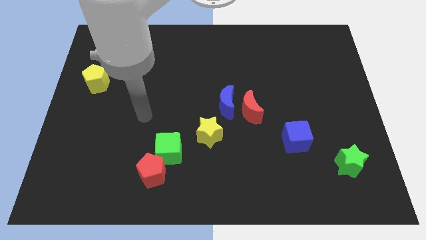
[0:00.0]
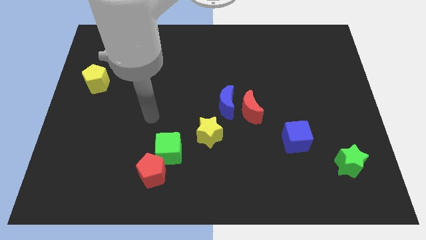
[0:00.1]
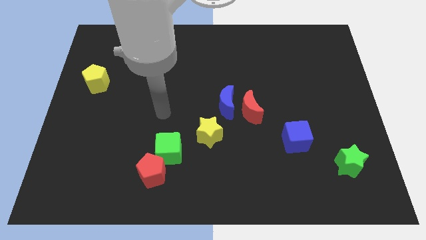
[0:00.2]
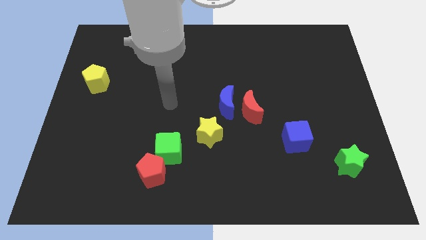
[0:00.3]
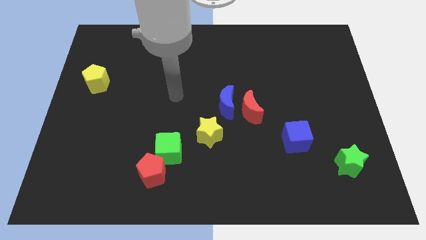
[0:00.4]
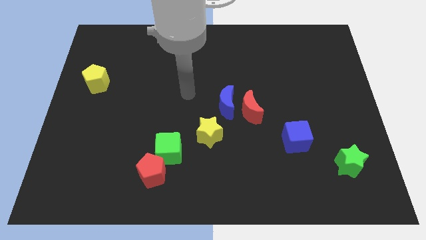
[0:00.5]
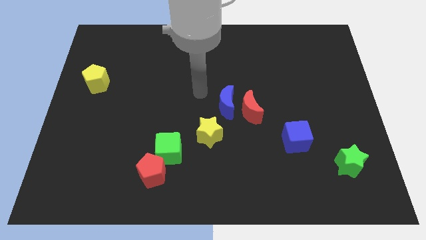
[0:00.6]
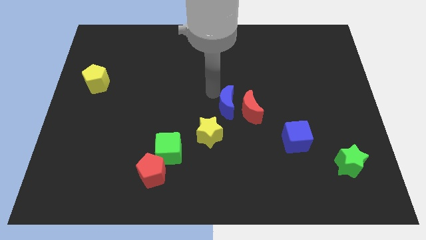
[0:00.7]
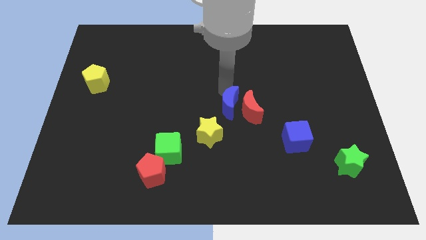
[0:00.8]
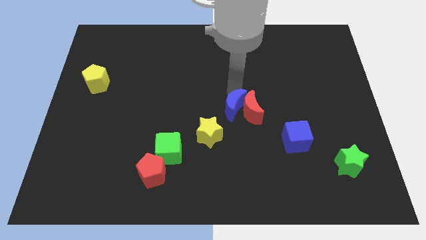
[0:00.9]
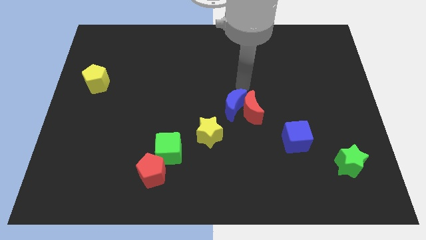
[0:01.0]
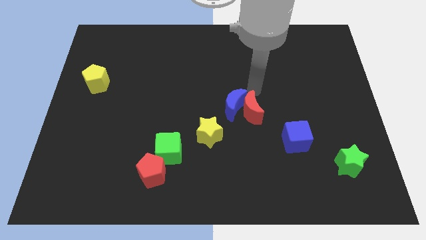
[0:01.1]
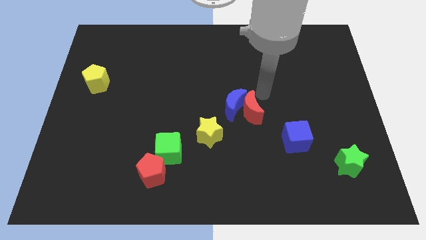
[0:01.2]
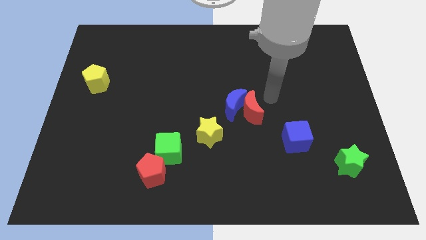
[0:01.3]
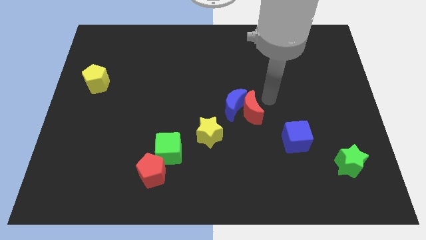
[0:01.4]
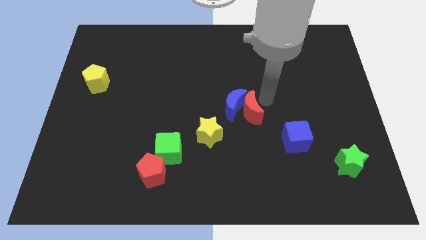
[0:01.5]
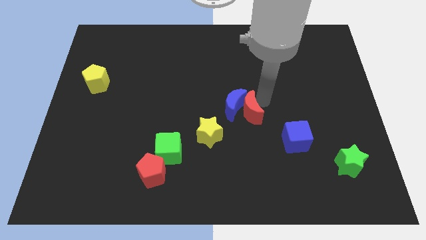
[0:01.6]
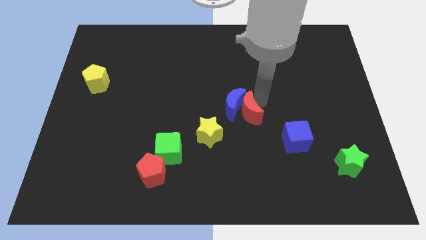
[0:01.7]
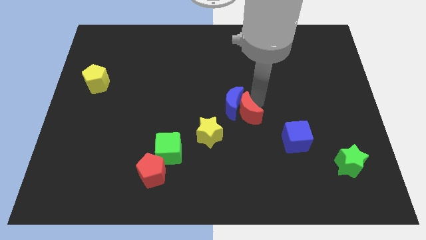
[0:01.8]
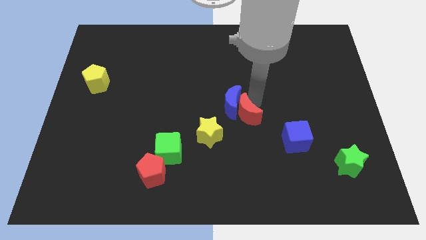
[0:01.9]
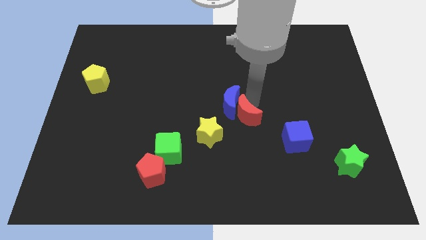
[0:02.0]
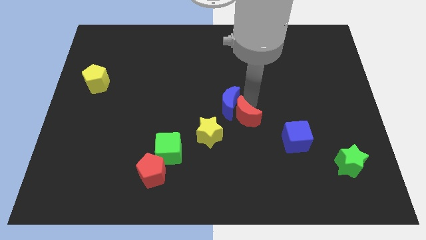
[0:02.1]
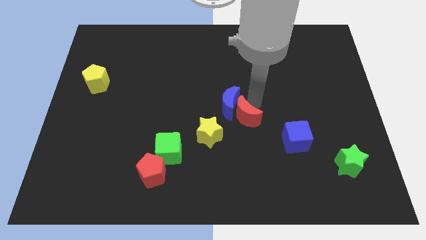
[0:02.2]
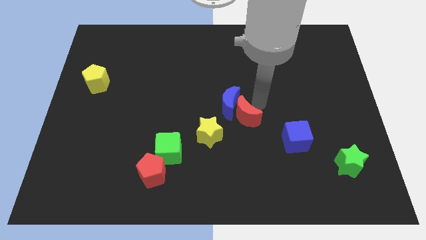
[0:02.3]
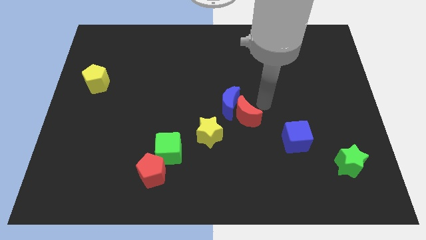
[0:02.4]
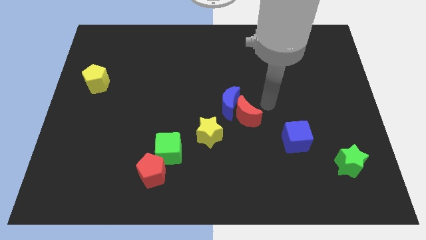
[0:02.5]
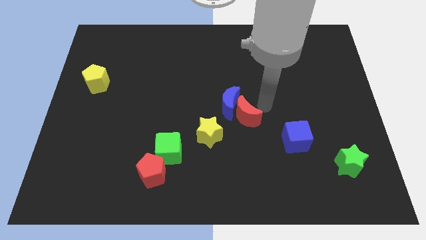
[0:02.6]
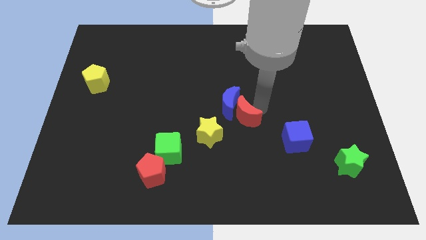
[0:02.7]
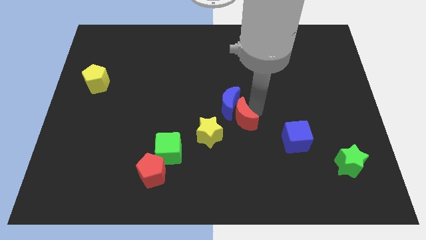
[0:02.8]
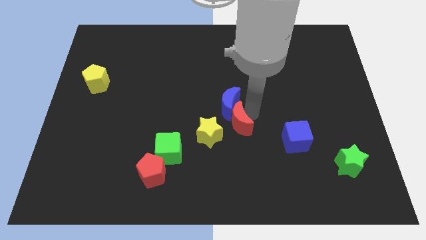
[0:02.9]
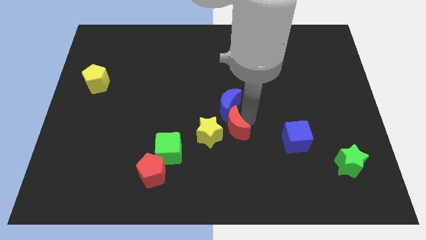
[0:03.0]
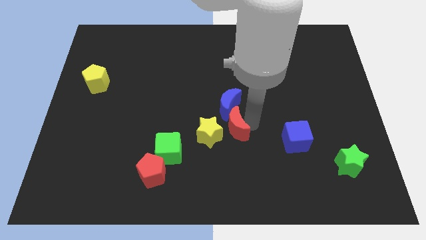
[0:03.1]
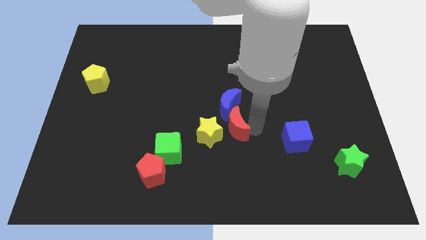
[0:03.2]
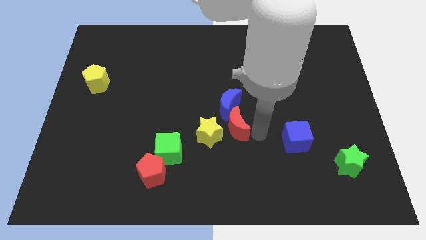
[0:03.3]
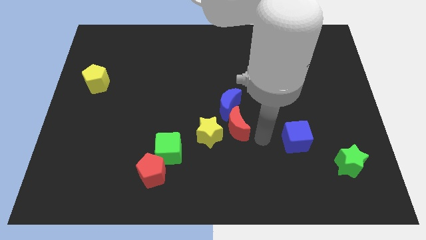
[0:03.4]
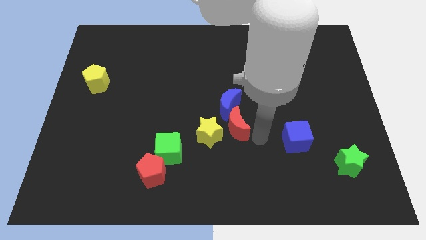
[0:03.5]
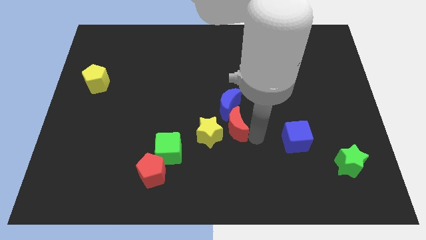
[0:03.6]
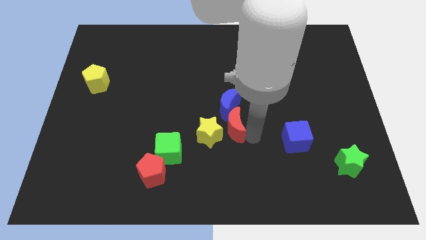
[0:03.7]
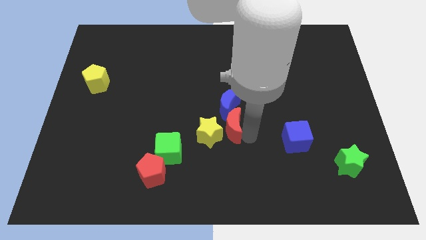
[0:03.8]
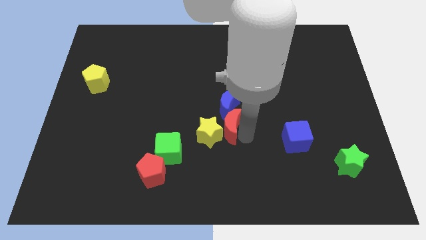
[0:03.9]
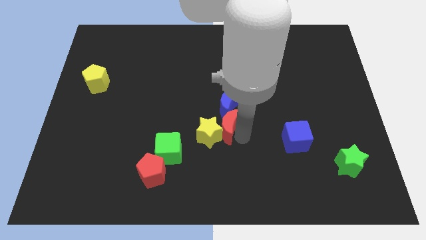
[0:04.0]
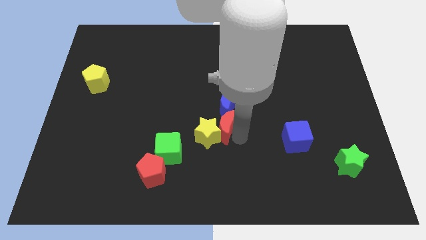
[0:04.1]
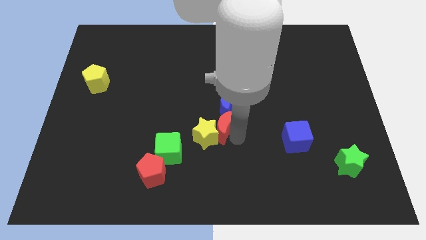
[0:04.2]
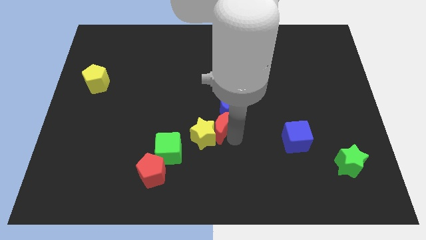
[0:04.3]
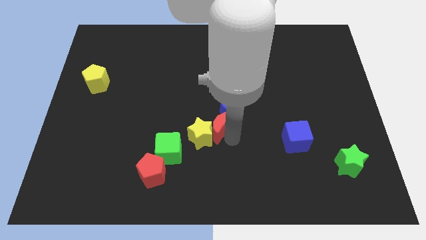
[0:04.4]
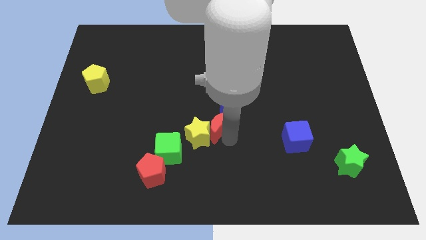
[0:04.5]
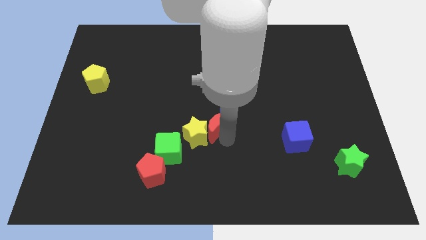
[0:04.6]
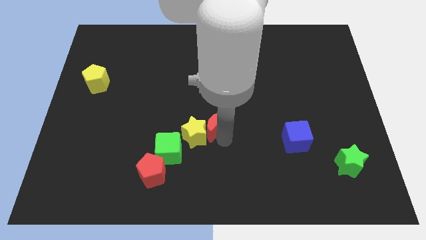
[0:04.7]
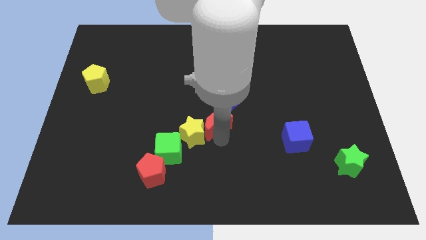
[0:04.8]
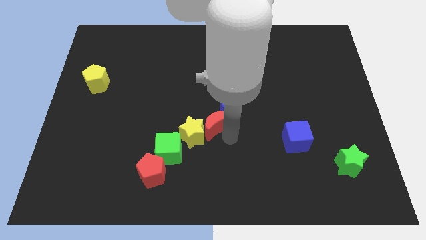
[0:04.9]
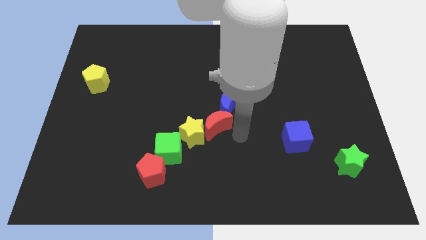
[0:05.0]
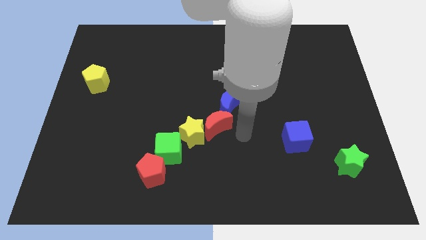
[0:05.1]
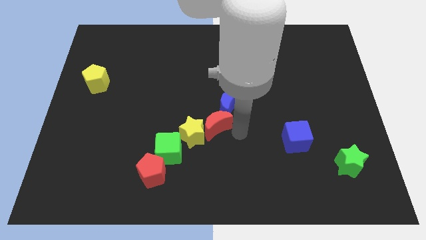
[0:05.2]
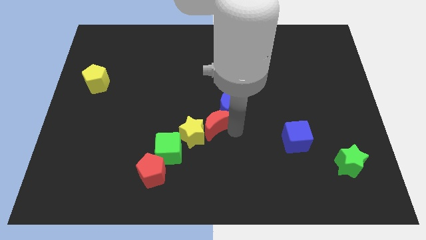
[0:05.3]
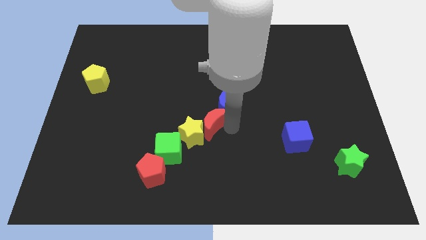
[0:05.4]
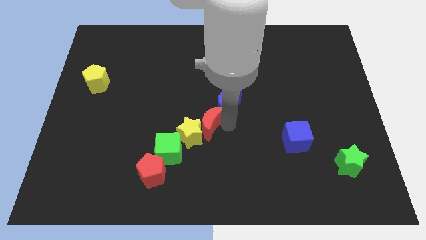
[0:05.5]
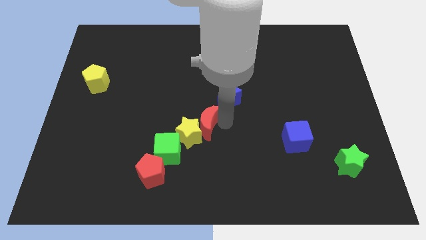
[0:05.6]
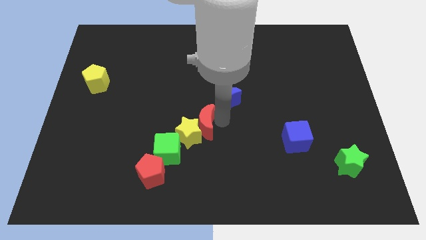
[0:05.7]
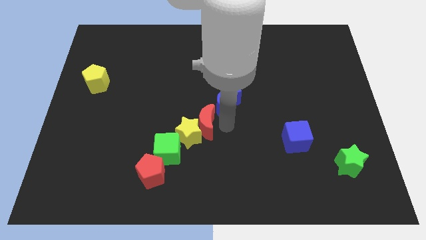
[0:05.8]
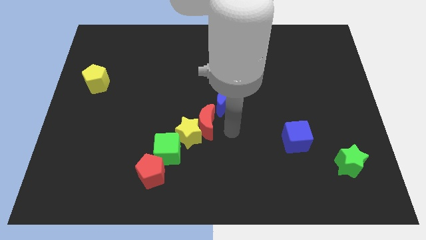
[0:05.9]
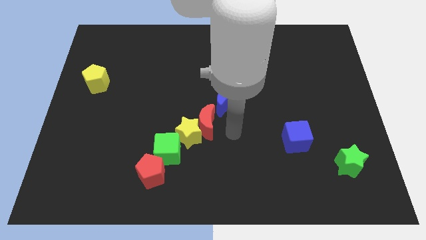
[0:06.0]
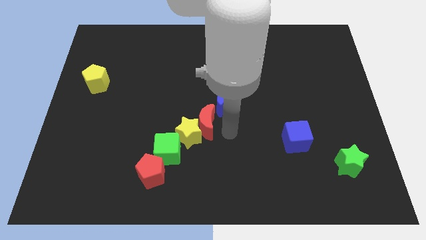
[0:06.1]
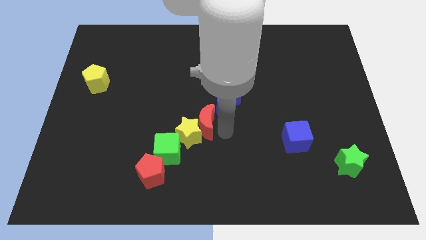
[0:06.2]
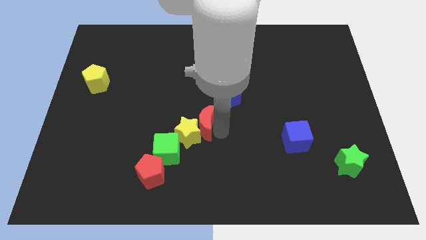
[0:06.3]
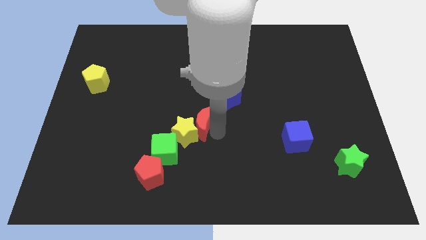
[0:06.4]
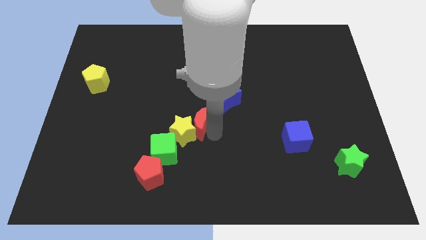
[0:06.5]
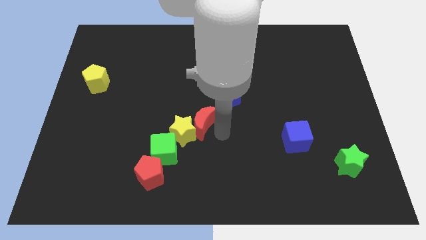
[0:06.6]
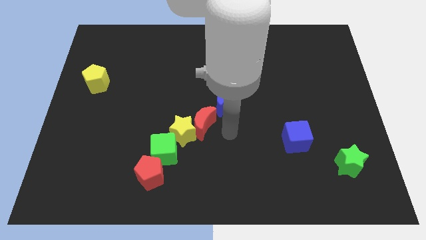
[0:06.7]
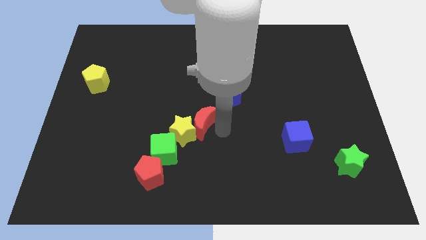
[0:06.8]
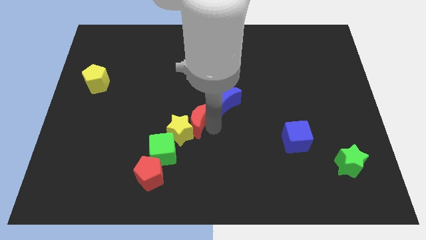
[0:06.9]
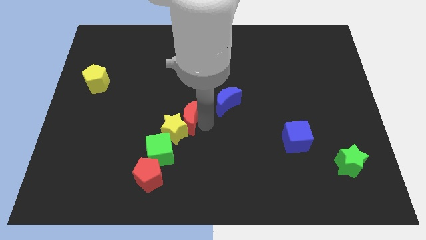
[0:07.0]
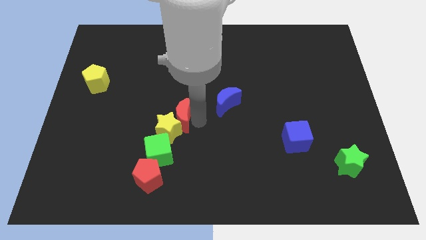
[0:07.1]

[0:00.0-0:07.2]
move the red moon to the top of the green cube
